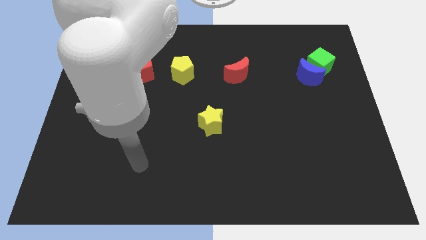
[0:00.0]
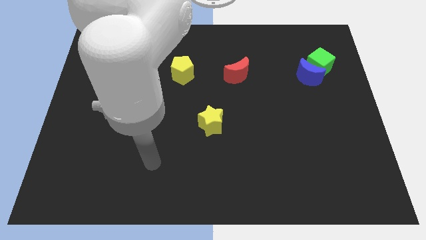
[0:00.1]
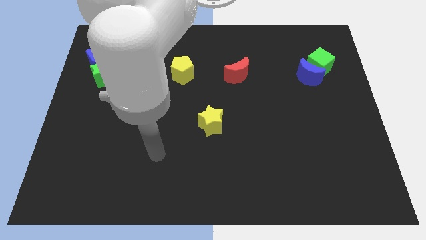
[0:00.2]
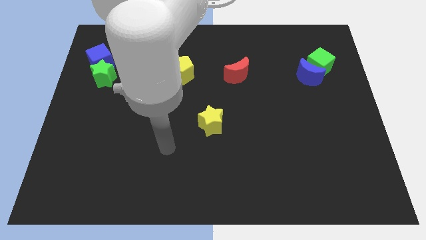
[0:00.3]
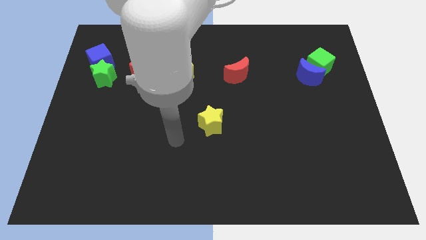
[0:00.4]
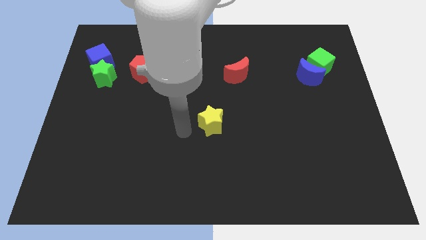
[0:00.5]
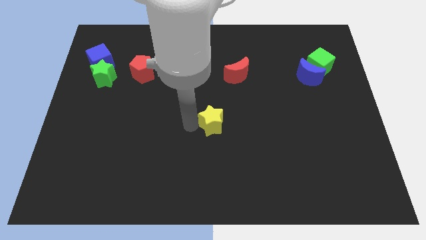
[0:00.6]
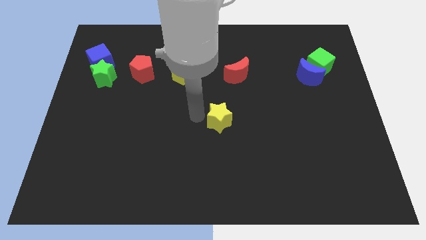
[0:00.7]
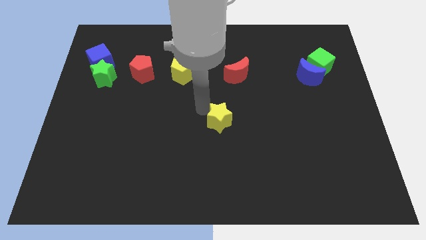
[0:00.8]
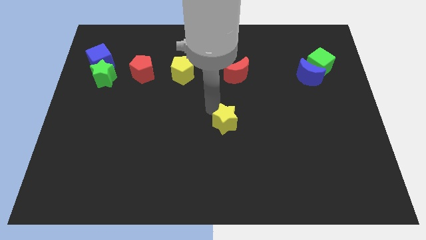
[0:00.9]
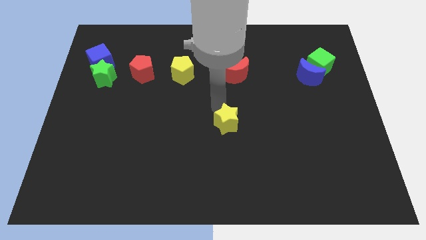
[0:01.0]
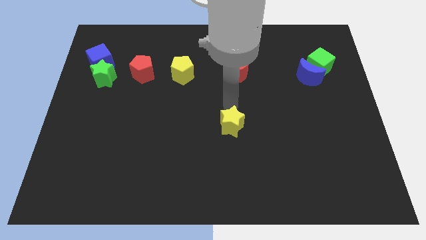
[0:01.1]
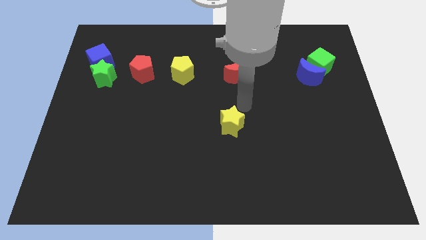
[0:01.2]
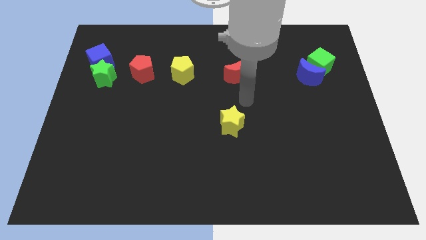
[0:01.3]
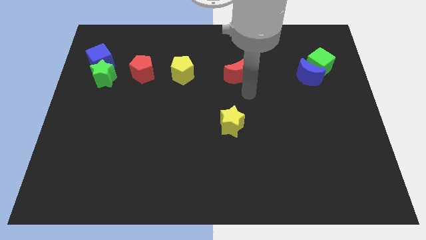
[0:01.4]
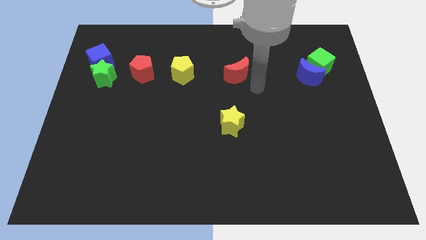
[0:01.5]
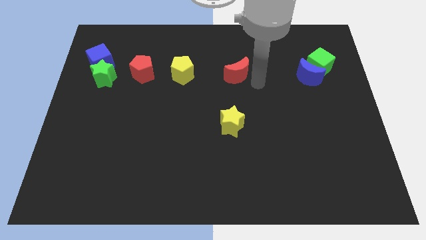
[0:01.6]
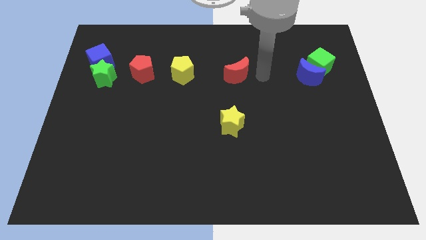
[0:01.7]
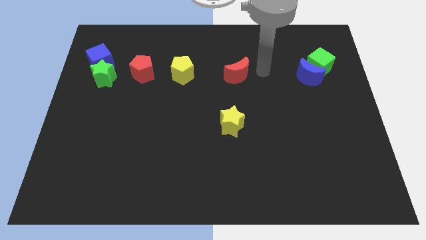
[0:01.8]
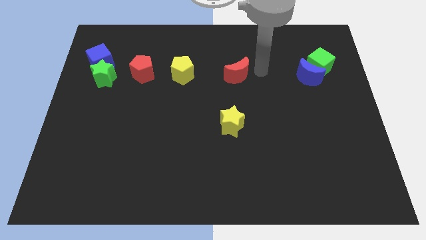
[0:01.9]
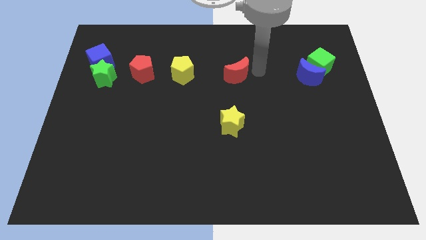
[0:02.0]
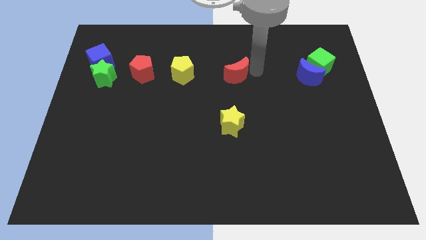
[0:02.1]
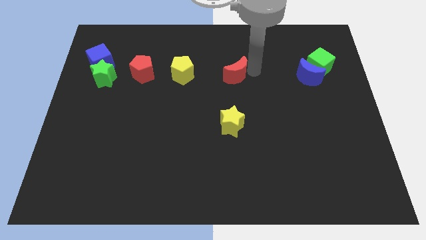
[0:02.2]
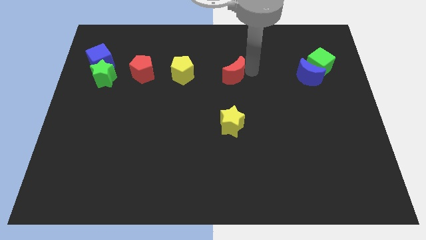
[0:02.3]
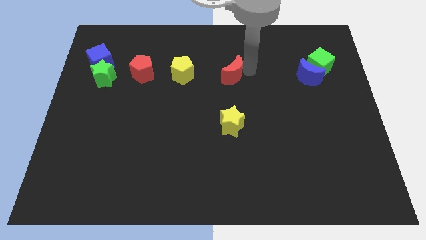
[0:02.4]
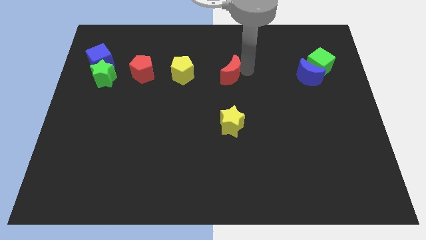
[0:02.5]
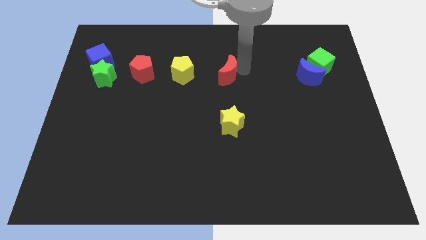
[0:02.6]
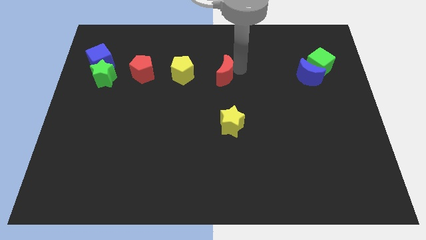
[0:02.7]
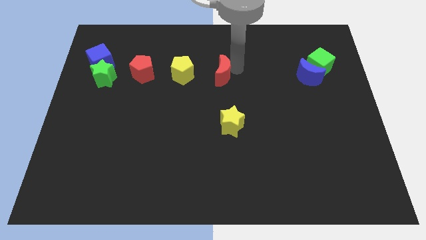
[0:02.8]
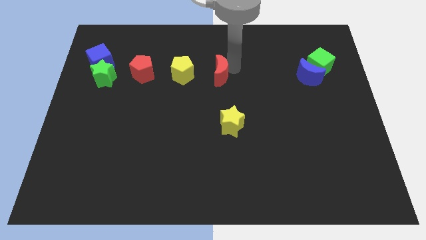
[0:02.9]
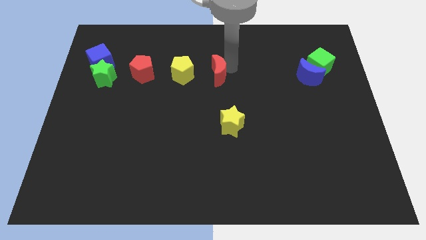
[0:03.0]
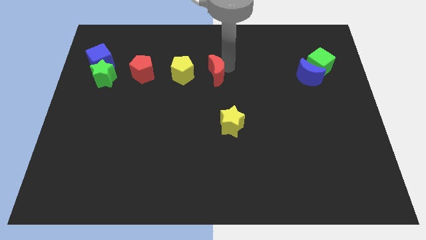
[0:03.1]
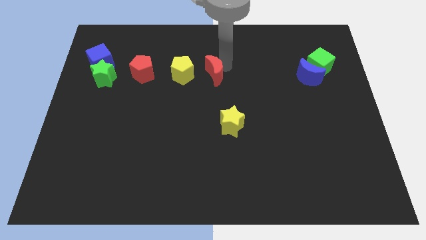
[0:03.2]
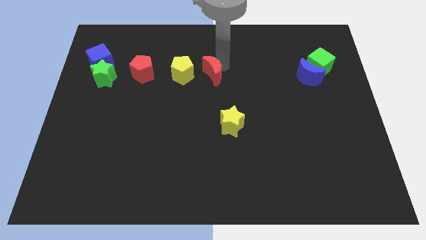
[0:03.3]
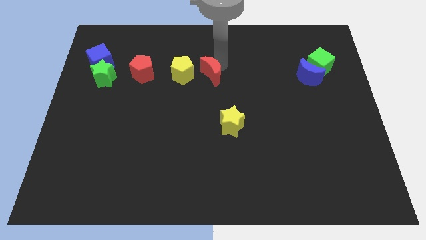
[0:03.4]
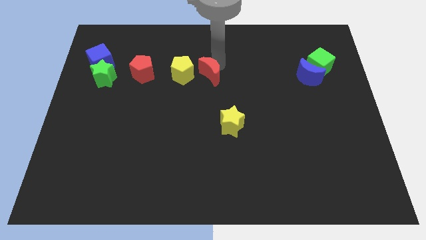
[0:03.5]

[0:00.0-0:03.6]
push the red moon a bit to the left

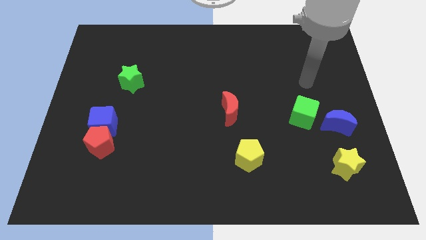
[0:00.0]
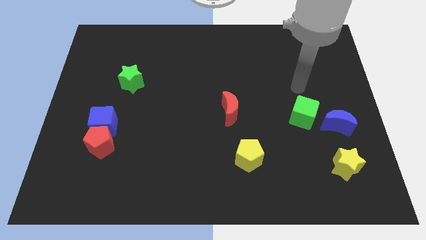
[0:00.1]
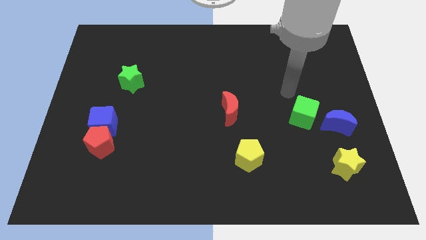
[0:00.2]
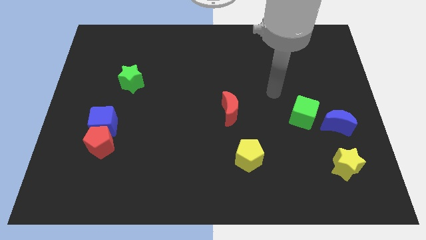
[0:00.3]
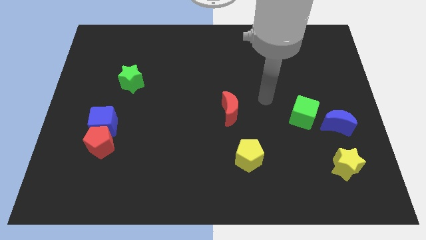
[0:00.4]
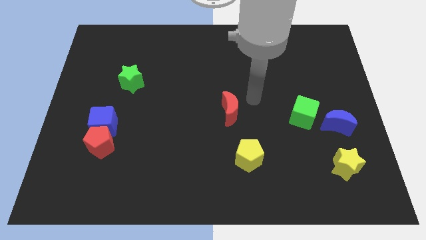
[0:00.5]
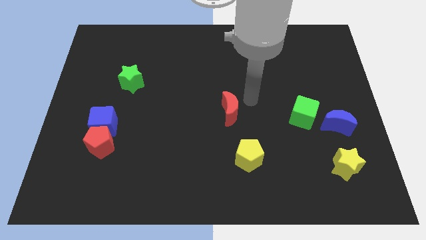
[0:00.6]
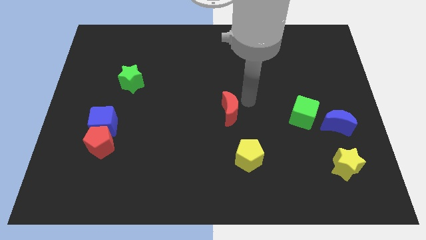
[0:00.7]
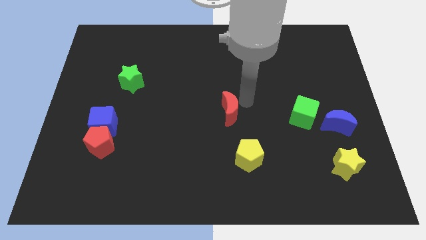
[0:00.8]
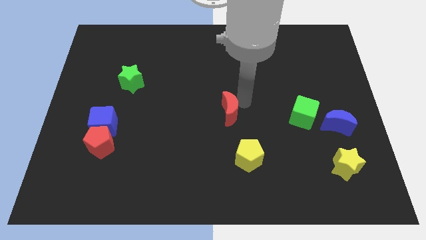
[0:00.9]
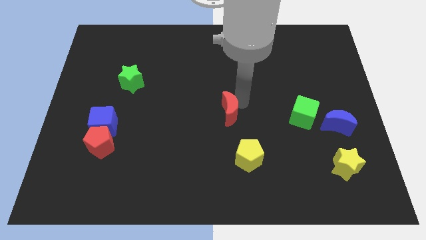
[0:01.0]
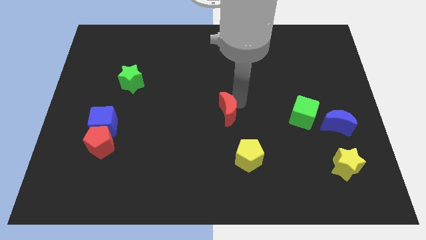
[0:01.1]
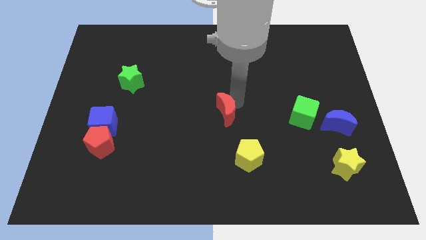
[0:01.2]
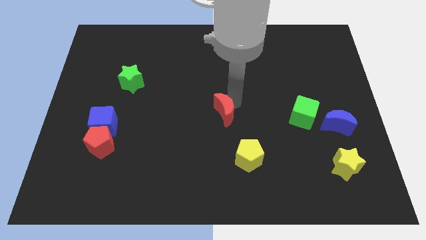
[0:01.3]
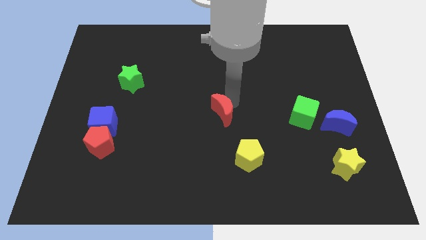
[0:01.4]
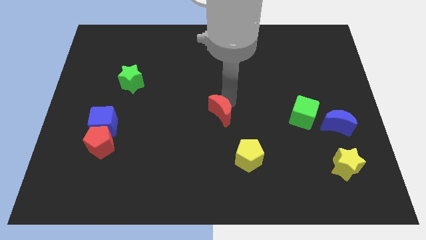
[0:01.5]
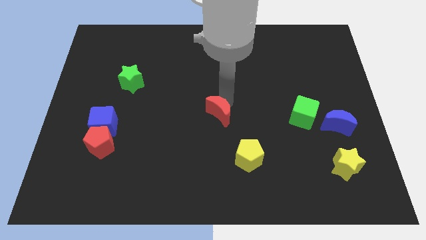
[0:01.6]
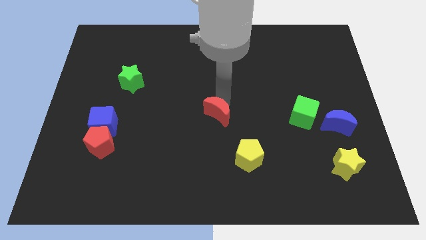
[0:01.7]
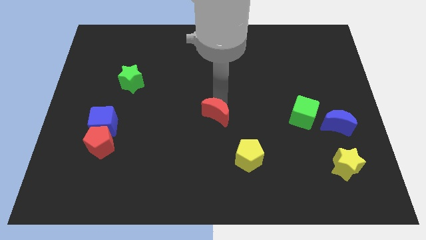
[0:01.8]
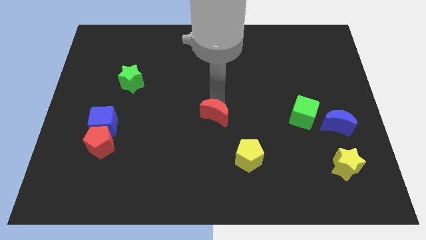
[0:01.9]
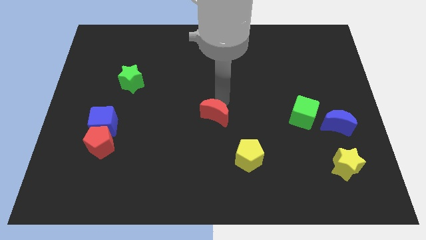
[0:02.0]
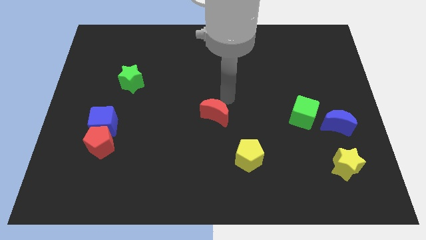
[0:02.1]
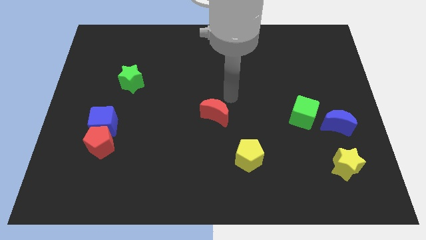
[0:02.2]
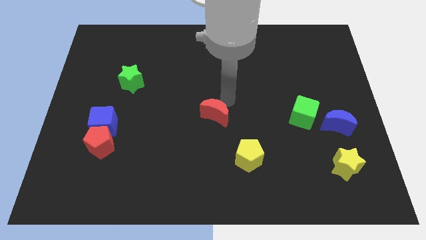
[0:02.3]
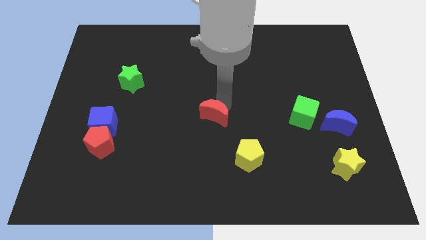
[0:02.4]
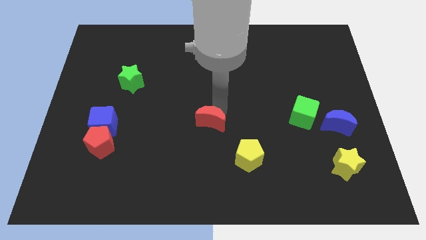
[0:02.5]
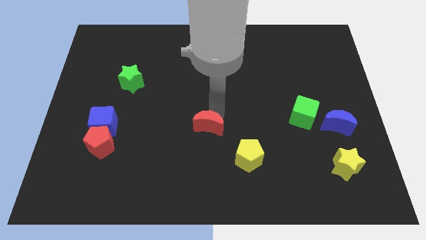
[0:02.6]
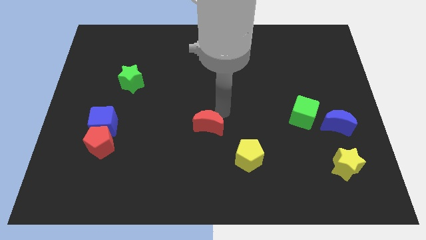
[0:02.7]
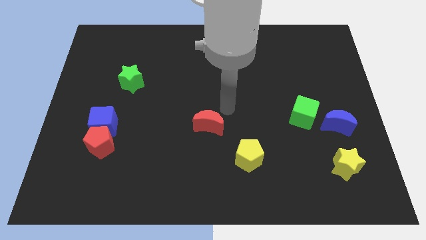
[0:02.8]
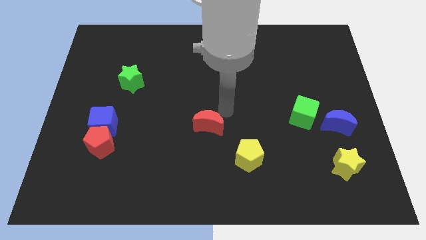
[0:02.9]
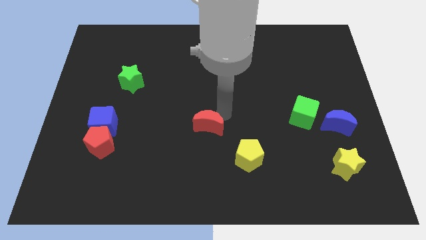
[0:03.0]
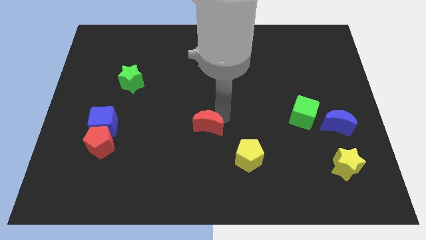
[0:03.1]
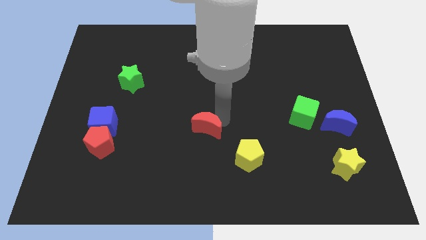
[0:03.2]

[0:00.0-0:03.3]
move the red moon a bit downwards and left diagonally

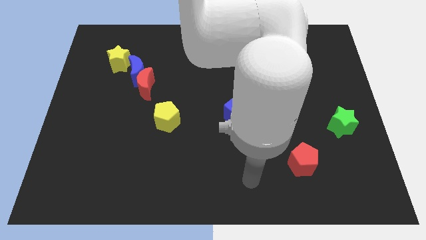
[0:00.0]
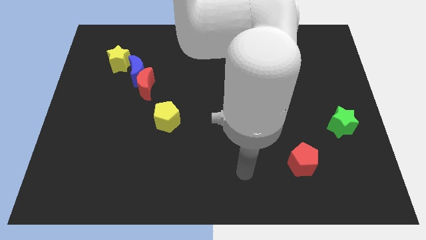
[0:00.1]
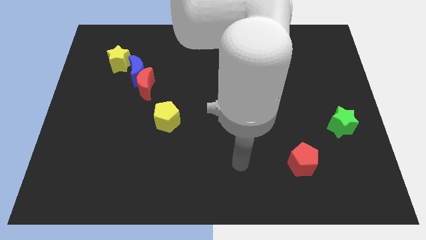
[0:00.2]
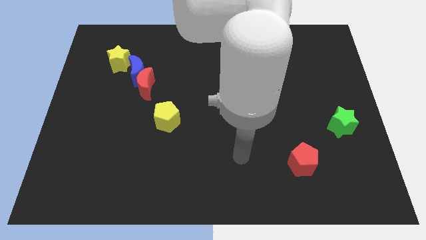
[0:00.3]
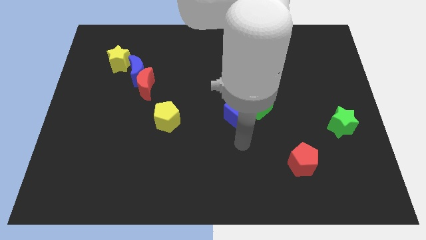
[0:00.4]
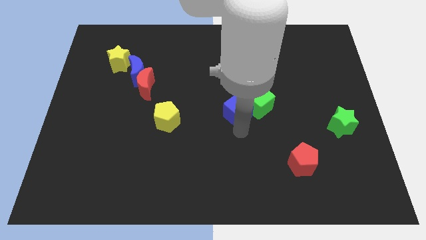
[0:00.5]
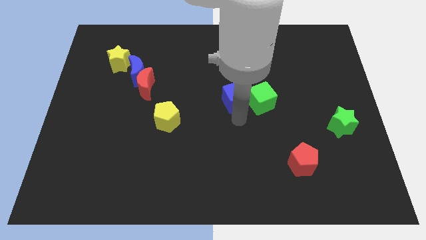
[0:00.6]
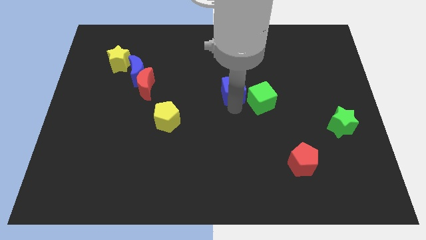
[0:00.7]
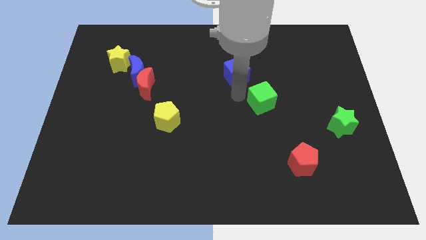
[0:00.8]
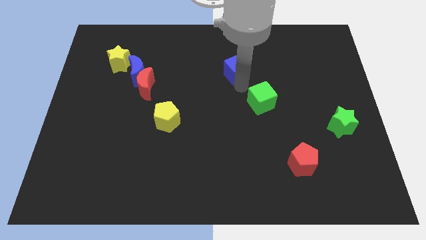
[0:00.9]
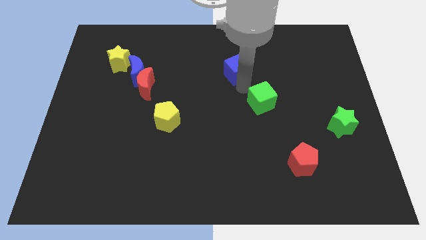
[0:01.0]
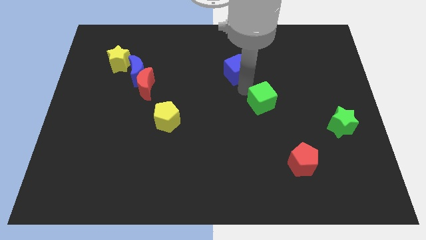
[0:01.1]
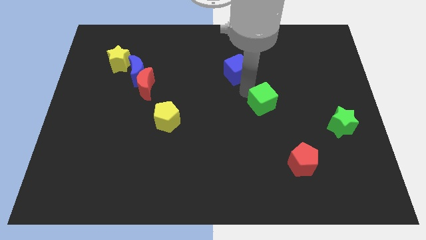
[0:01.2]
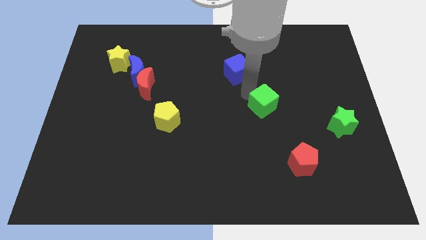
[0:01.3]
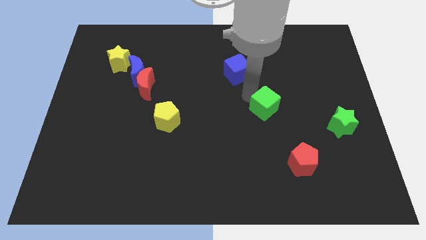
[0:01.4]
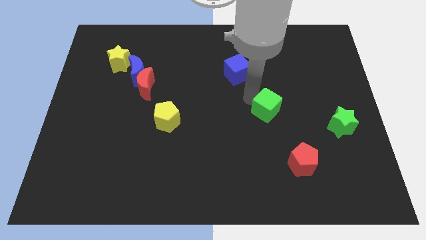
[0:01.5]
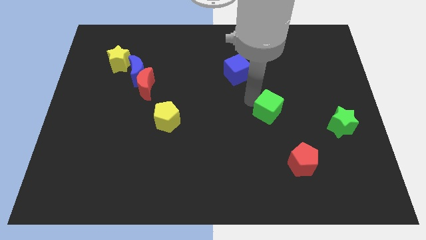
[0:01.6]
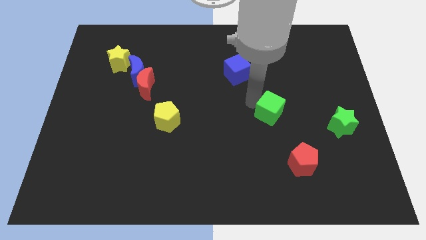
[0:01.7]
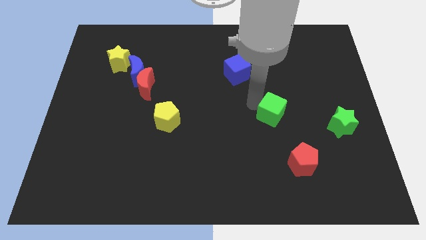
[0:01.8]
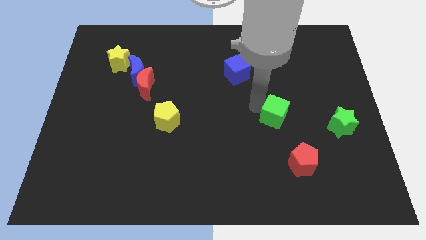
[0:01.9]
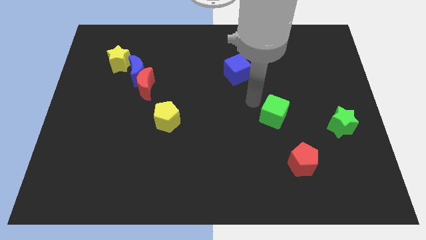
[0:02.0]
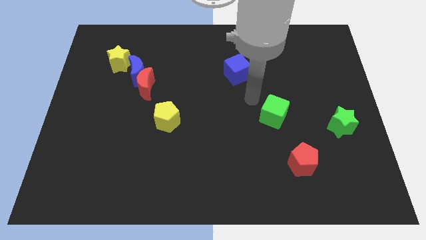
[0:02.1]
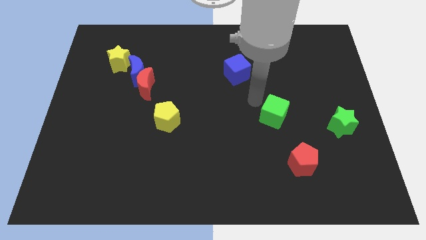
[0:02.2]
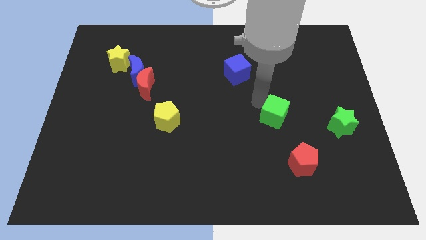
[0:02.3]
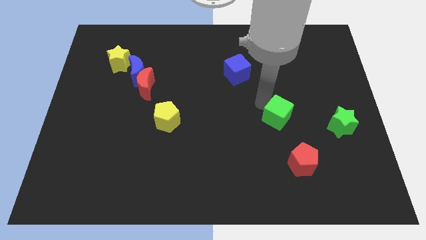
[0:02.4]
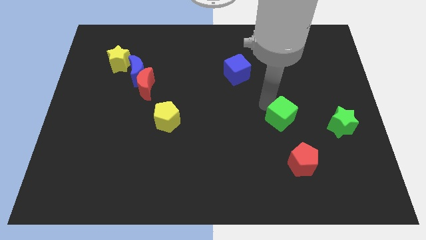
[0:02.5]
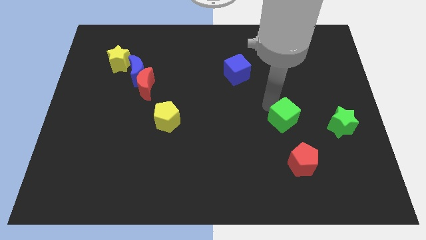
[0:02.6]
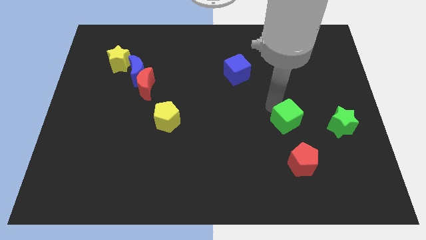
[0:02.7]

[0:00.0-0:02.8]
push the green cube a bit diagonally downwards and right
